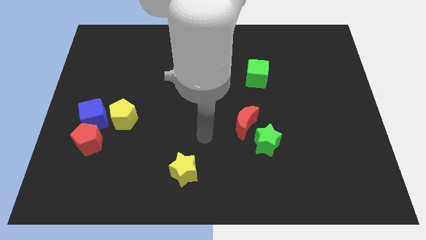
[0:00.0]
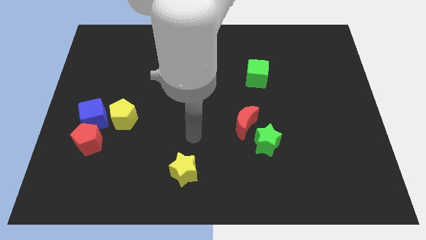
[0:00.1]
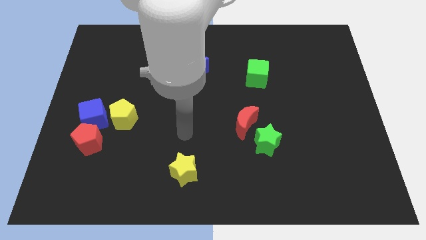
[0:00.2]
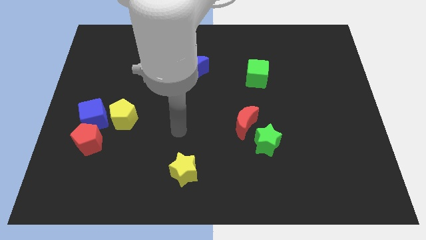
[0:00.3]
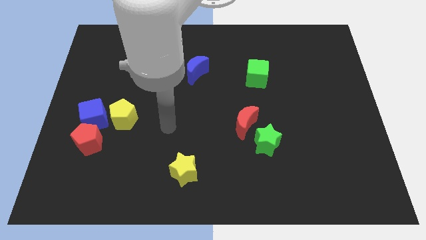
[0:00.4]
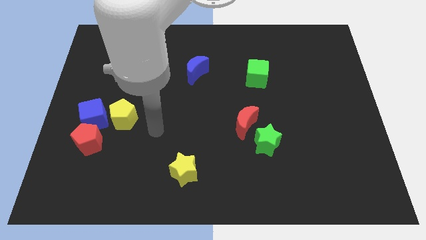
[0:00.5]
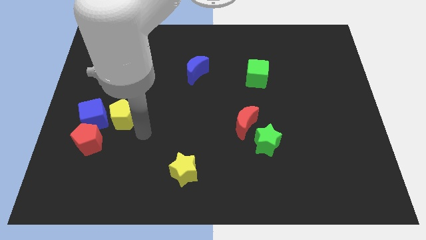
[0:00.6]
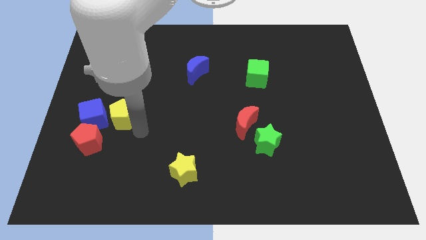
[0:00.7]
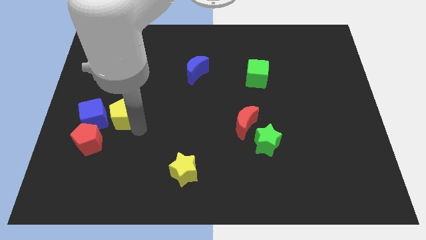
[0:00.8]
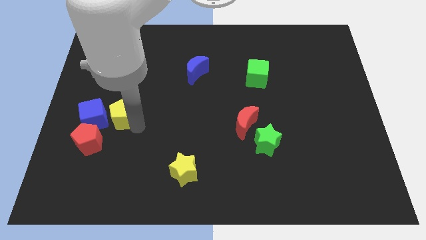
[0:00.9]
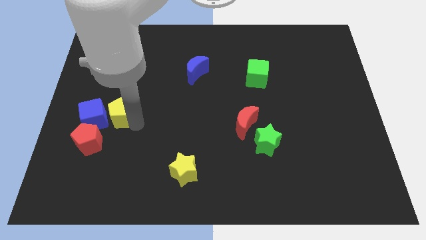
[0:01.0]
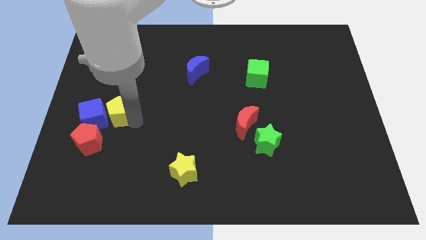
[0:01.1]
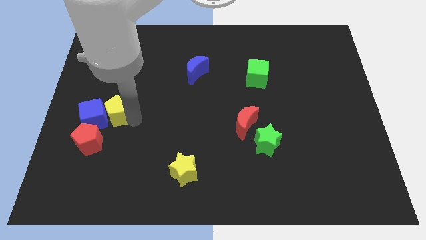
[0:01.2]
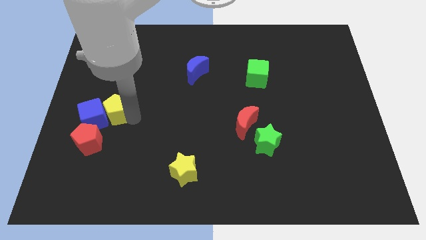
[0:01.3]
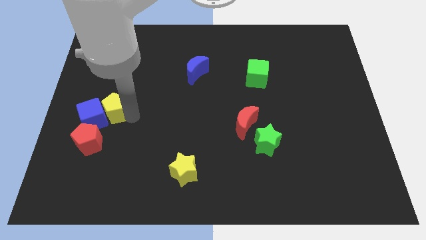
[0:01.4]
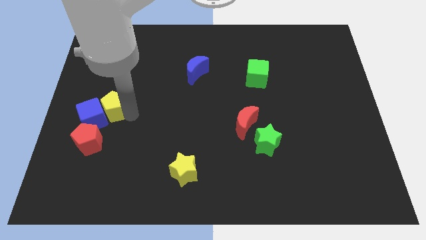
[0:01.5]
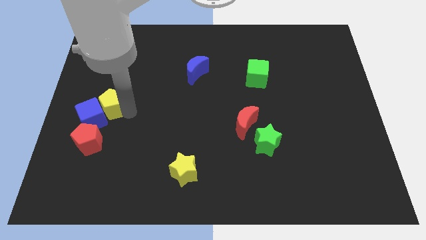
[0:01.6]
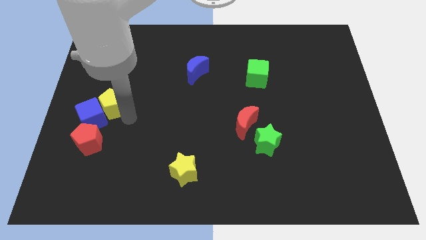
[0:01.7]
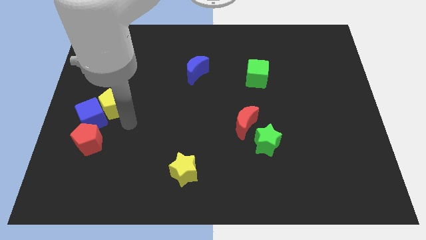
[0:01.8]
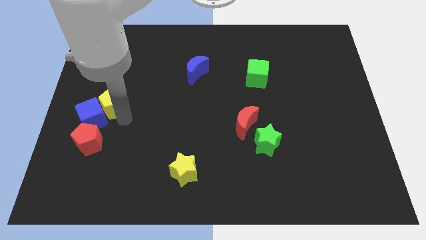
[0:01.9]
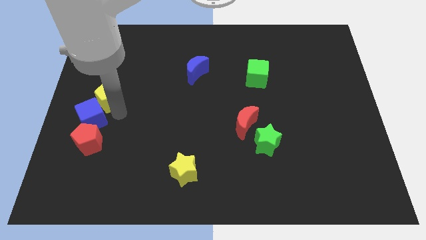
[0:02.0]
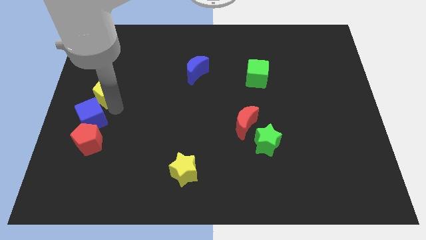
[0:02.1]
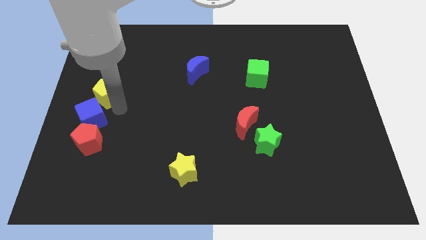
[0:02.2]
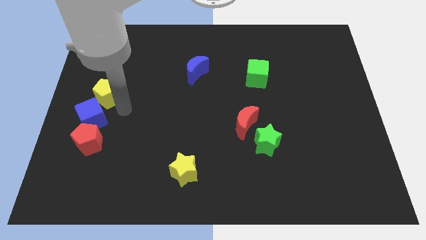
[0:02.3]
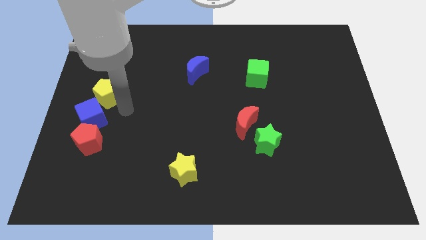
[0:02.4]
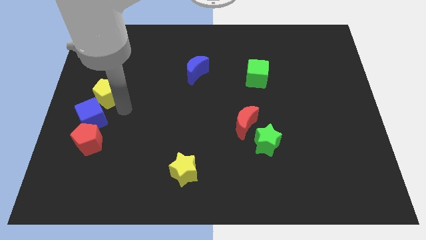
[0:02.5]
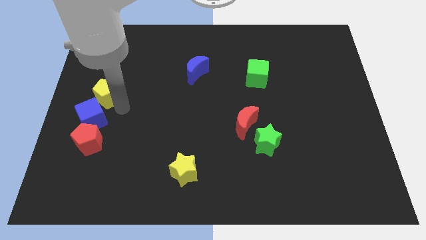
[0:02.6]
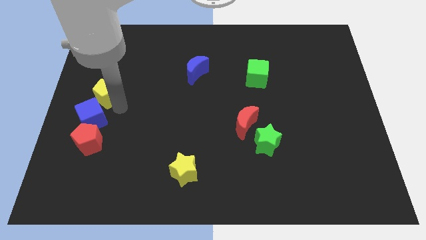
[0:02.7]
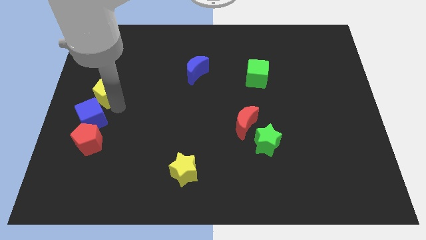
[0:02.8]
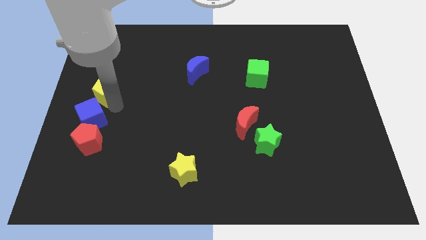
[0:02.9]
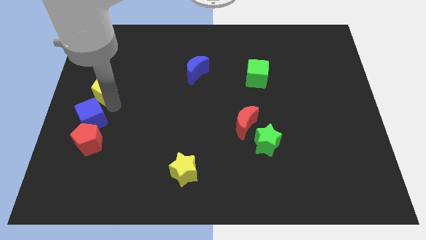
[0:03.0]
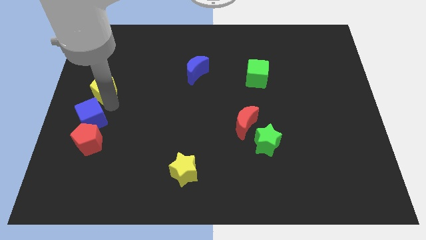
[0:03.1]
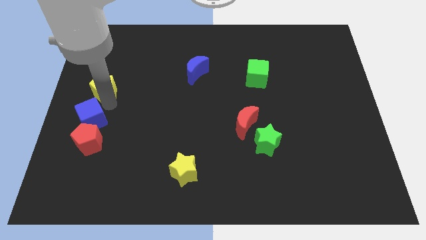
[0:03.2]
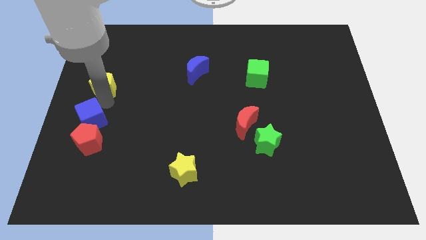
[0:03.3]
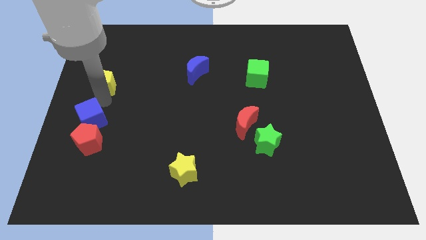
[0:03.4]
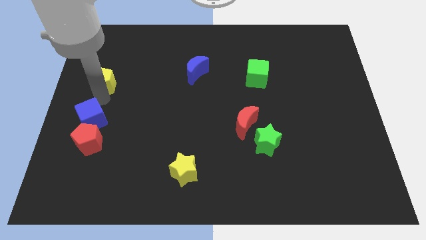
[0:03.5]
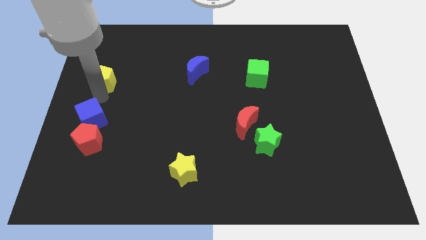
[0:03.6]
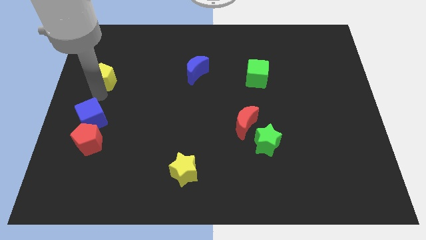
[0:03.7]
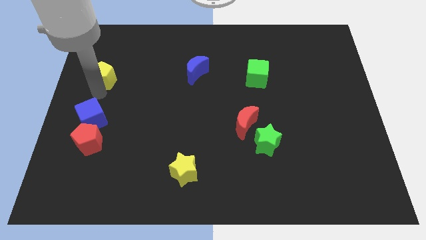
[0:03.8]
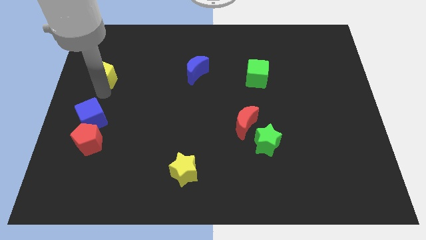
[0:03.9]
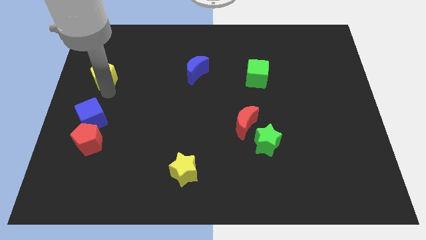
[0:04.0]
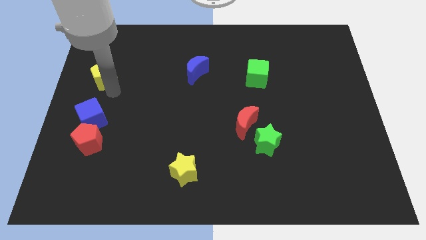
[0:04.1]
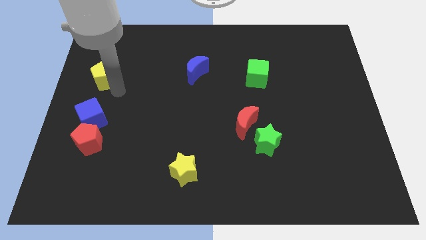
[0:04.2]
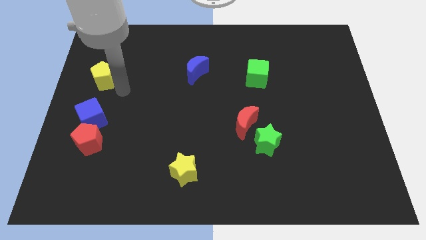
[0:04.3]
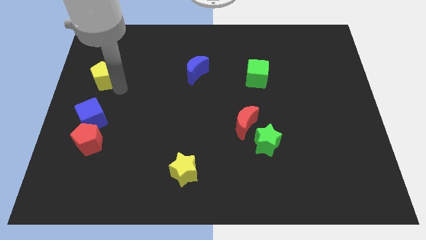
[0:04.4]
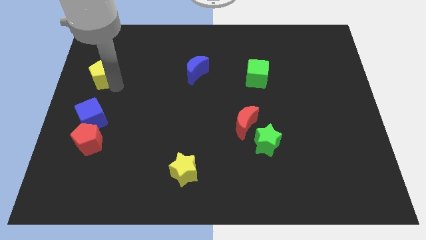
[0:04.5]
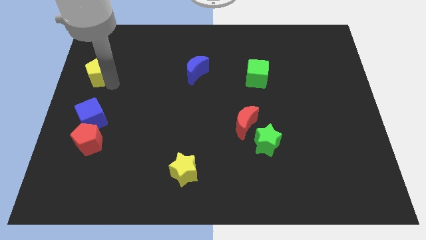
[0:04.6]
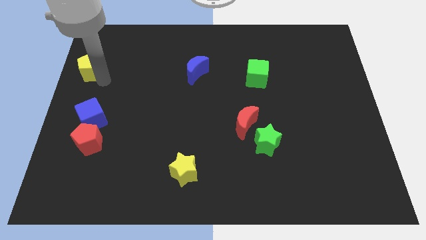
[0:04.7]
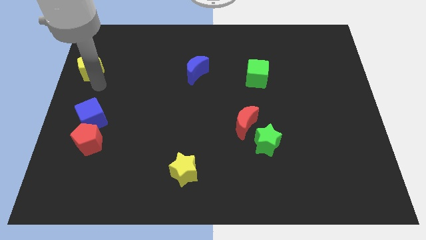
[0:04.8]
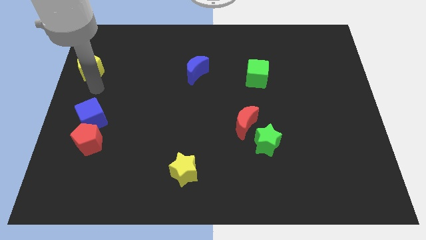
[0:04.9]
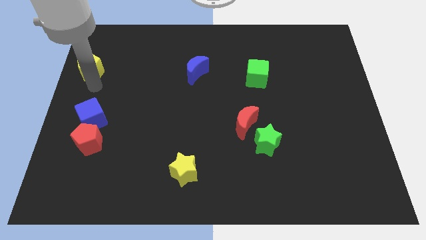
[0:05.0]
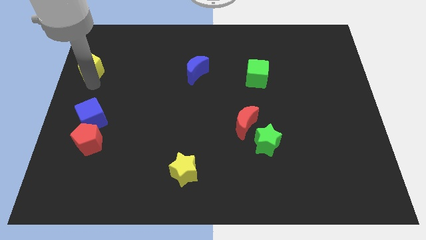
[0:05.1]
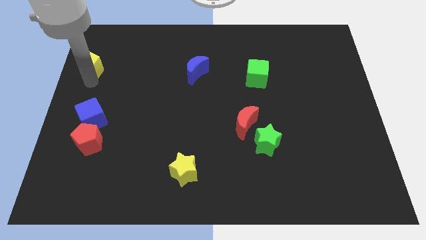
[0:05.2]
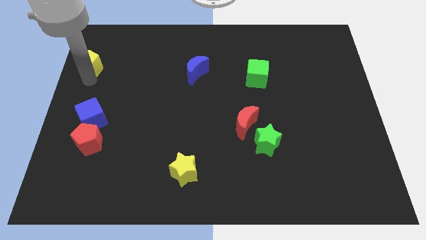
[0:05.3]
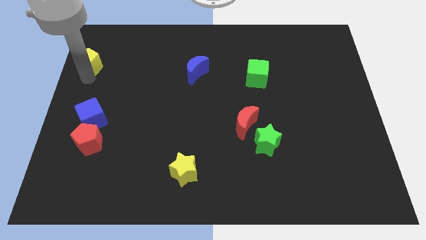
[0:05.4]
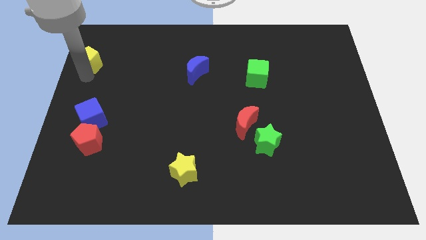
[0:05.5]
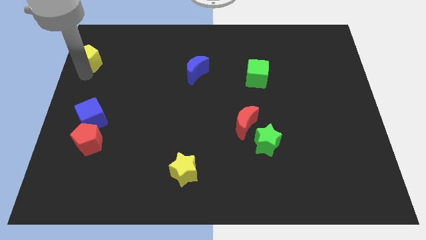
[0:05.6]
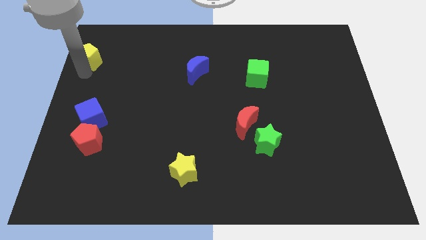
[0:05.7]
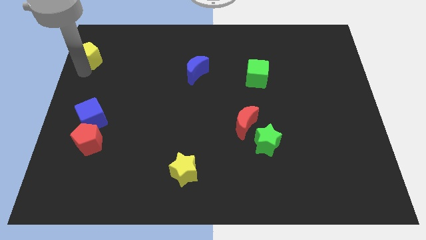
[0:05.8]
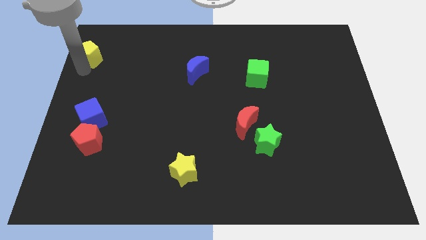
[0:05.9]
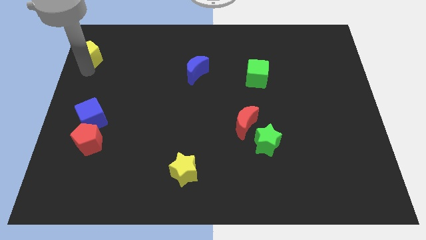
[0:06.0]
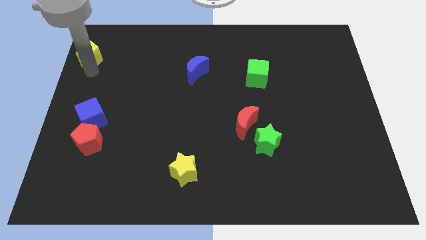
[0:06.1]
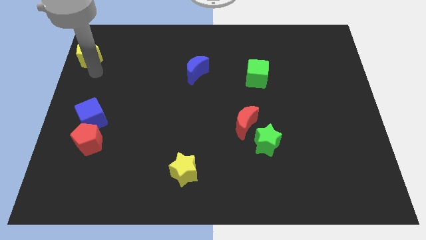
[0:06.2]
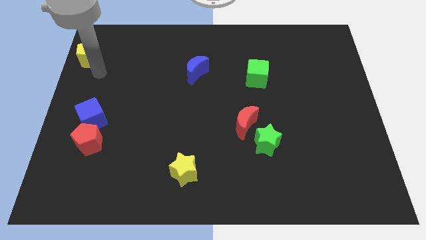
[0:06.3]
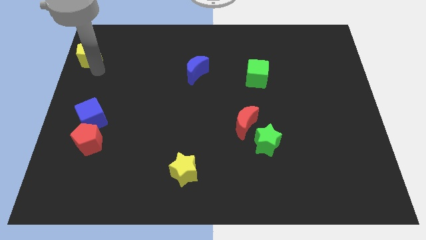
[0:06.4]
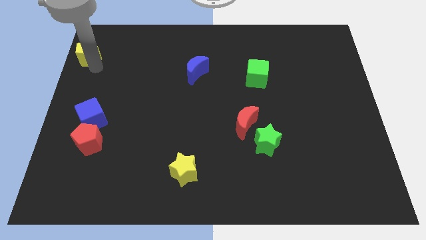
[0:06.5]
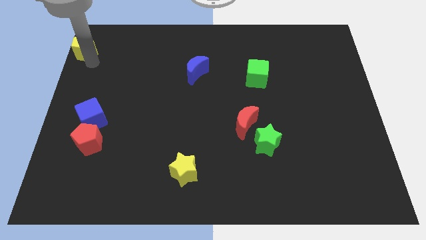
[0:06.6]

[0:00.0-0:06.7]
move the yellow pentagon to the top left of the board
